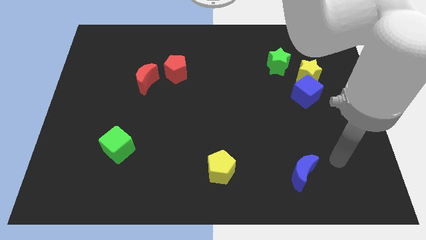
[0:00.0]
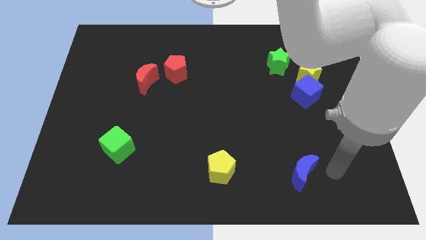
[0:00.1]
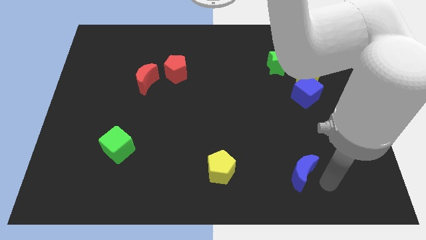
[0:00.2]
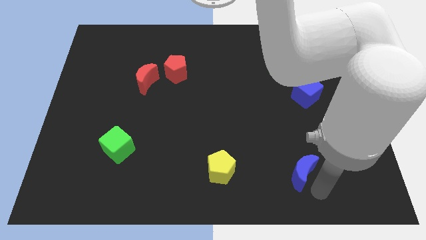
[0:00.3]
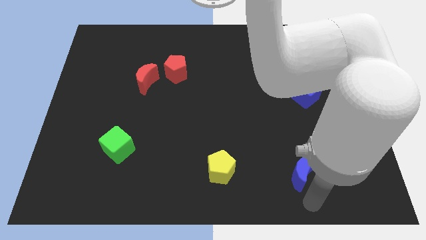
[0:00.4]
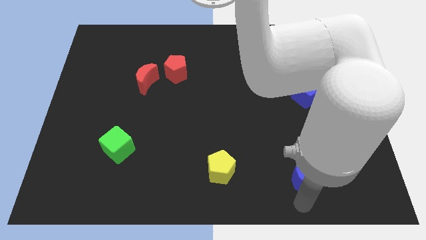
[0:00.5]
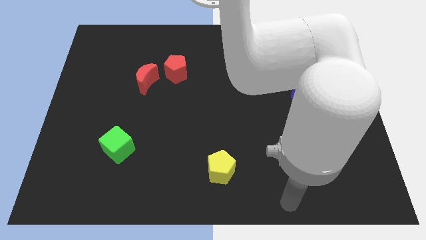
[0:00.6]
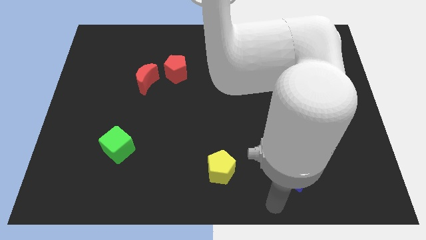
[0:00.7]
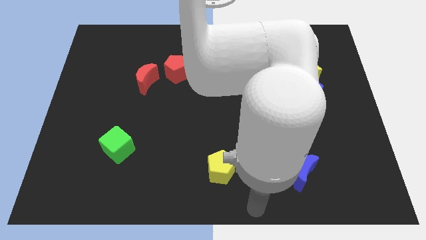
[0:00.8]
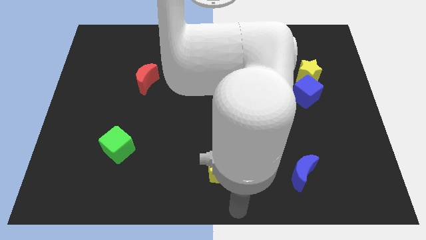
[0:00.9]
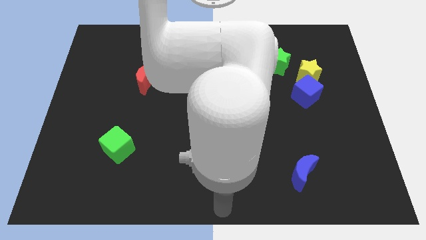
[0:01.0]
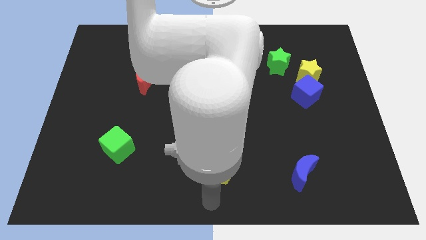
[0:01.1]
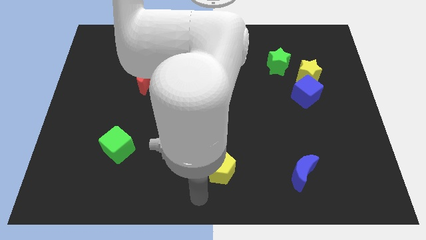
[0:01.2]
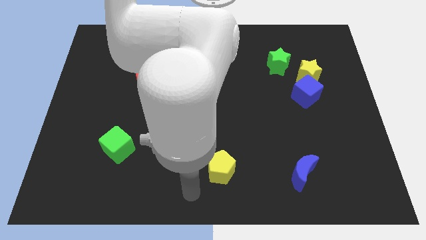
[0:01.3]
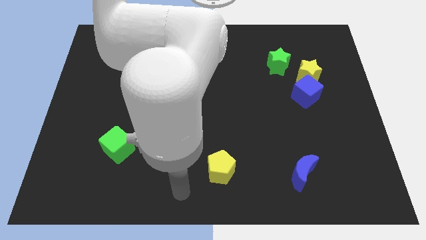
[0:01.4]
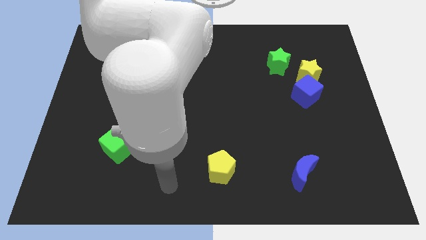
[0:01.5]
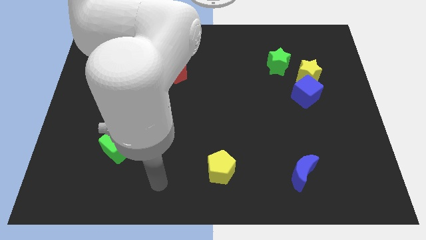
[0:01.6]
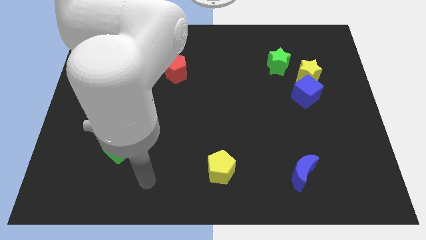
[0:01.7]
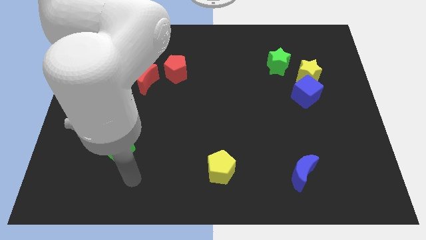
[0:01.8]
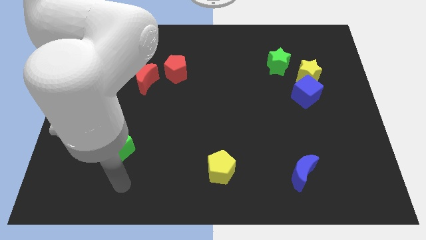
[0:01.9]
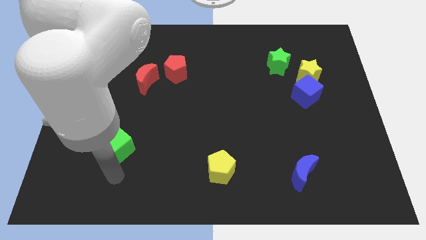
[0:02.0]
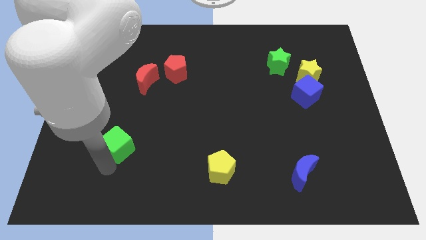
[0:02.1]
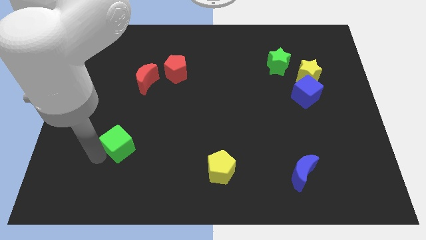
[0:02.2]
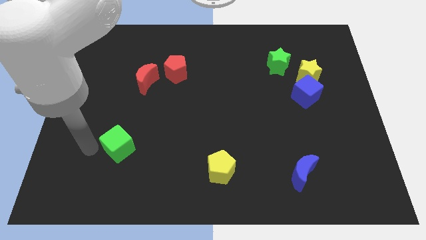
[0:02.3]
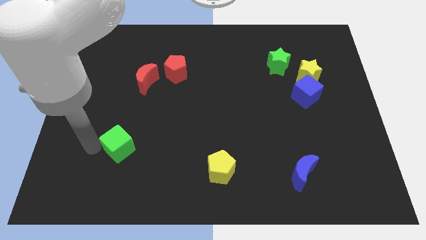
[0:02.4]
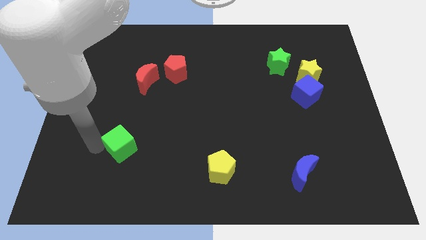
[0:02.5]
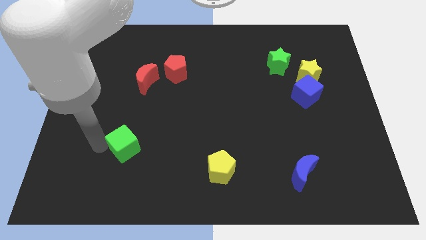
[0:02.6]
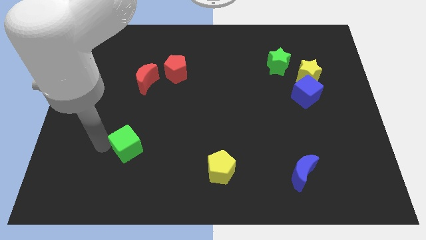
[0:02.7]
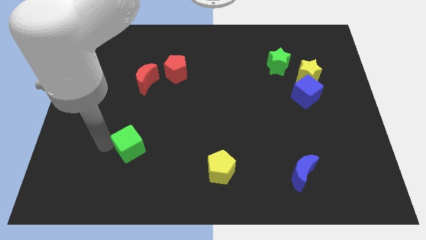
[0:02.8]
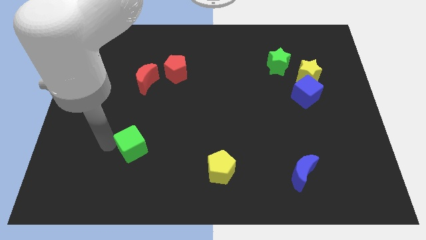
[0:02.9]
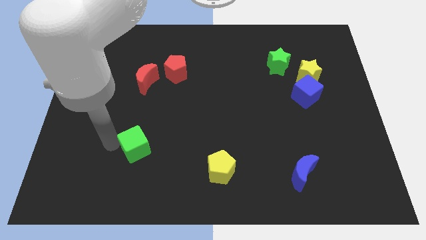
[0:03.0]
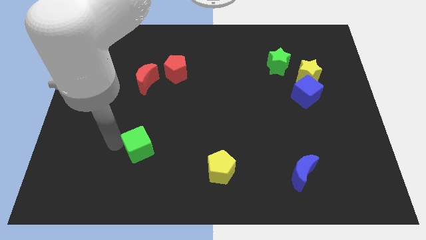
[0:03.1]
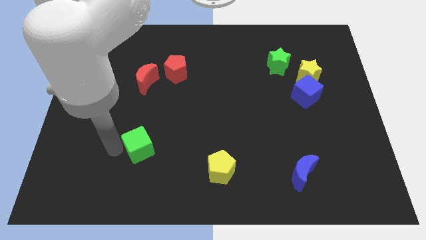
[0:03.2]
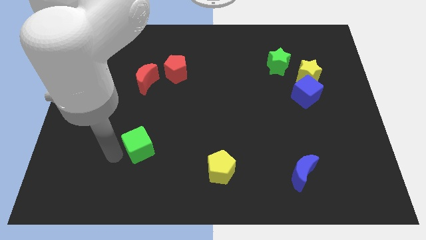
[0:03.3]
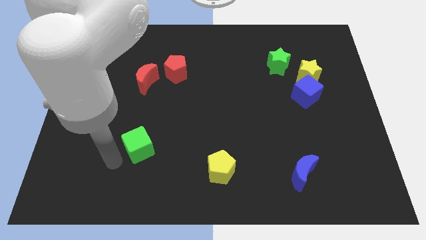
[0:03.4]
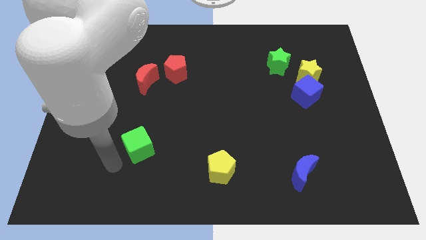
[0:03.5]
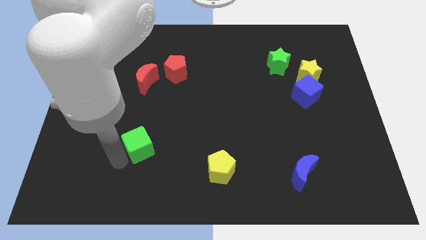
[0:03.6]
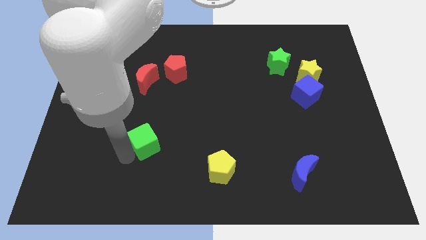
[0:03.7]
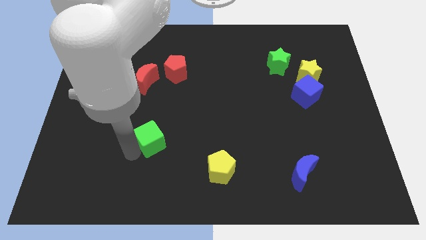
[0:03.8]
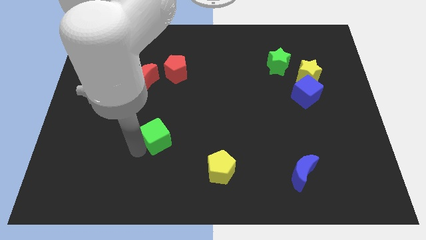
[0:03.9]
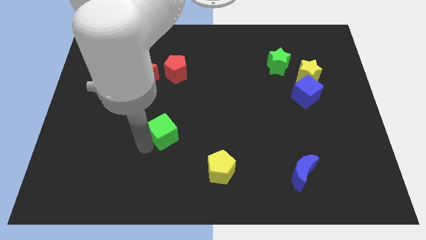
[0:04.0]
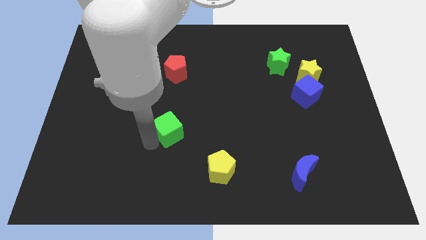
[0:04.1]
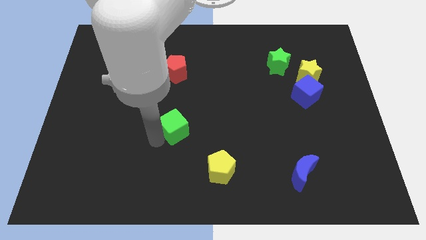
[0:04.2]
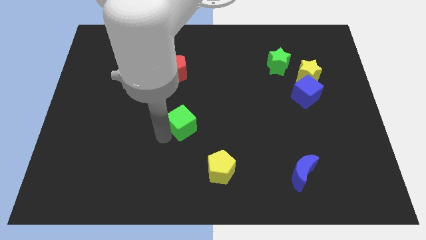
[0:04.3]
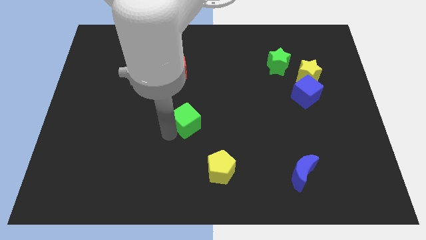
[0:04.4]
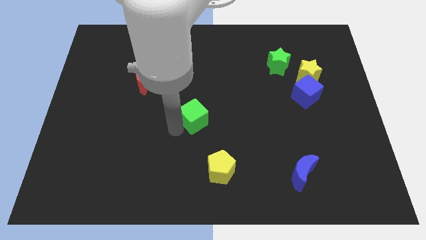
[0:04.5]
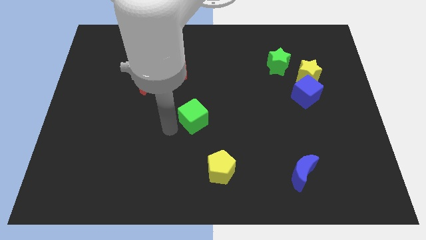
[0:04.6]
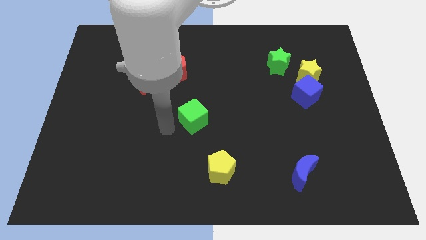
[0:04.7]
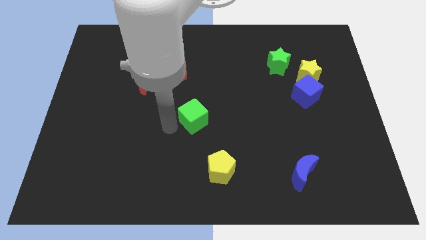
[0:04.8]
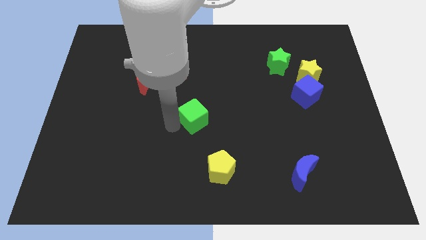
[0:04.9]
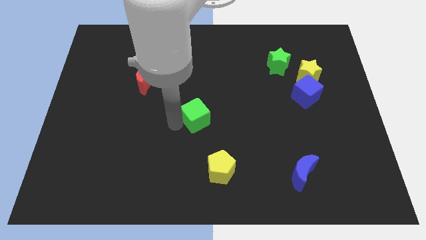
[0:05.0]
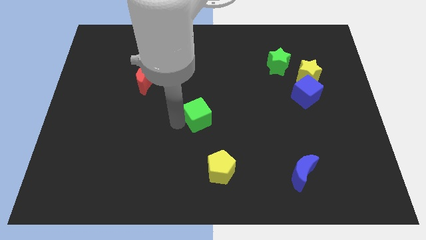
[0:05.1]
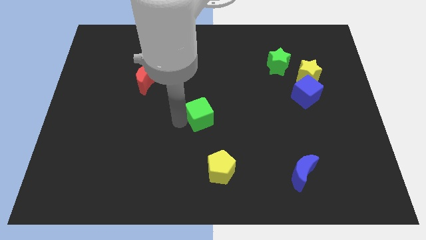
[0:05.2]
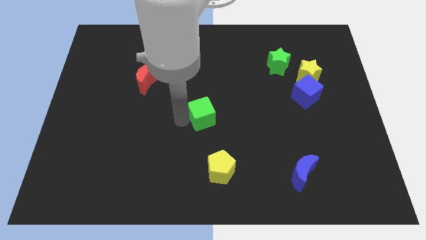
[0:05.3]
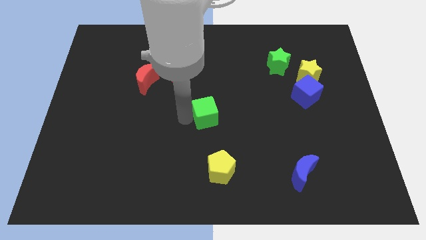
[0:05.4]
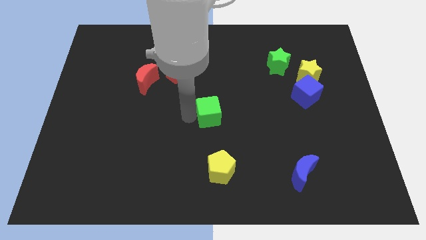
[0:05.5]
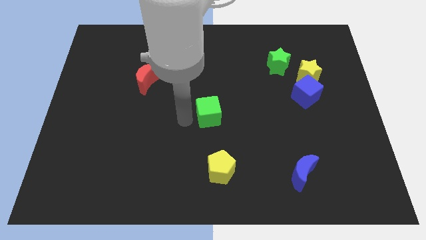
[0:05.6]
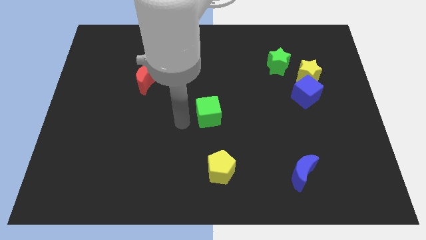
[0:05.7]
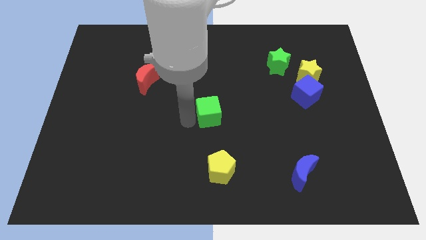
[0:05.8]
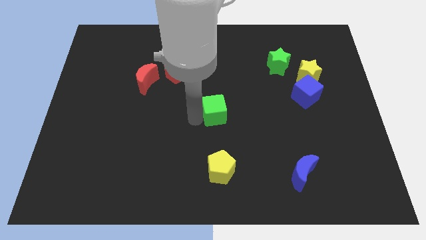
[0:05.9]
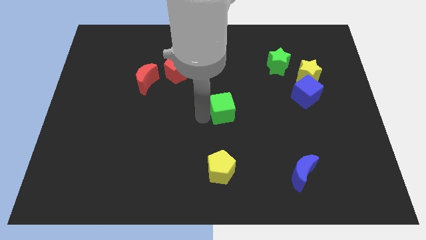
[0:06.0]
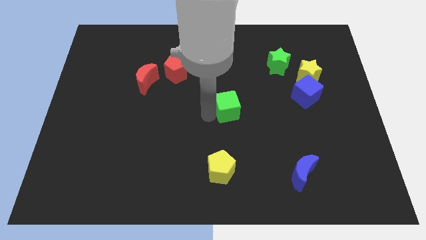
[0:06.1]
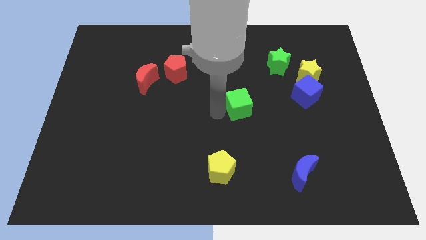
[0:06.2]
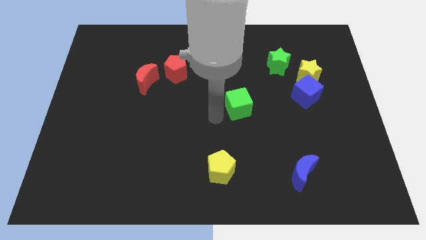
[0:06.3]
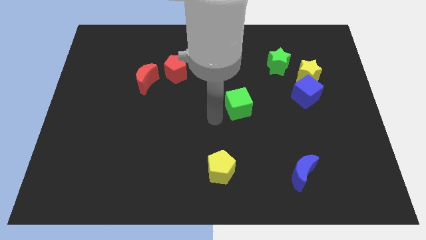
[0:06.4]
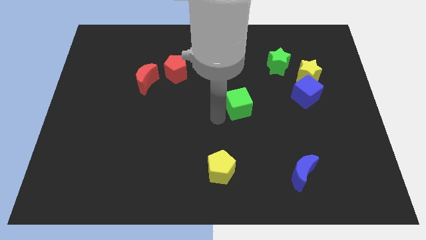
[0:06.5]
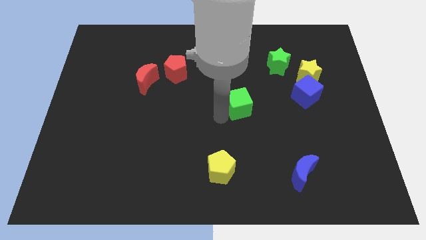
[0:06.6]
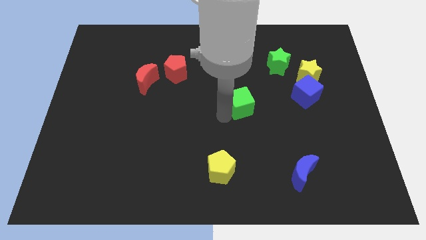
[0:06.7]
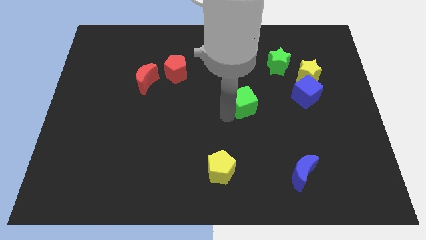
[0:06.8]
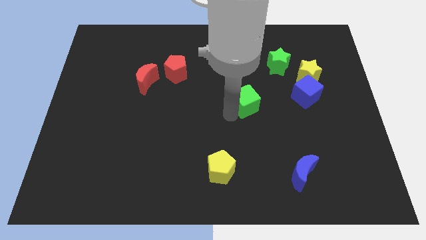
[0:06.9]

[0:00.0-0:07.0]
put the green cube to the left side of the blue cube

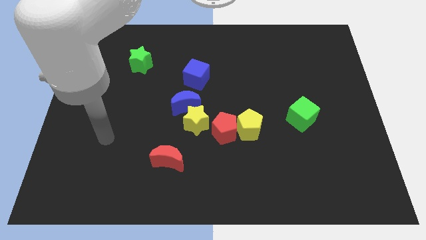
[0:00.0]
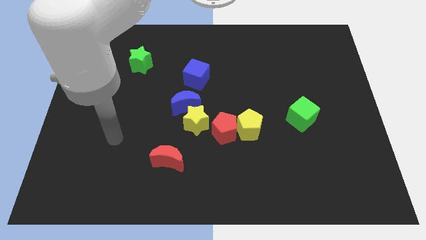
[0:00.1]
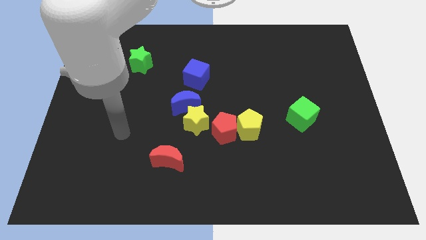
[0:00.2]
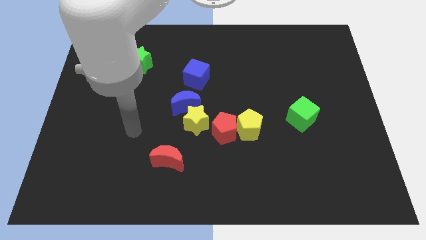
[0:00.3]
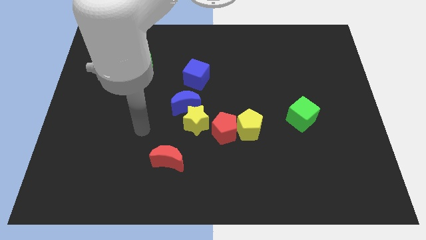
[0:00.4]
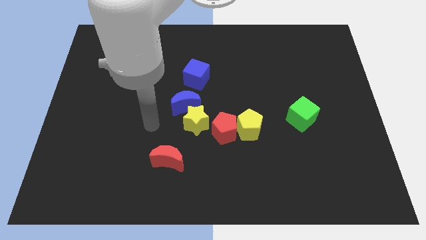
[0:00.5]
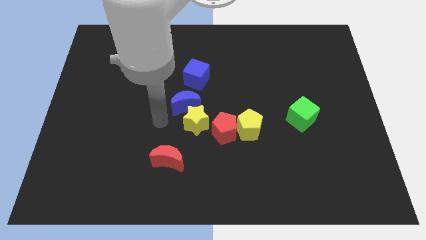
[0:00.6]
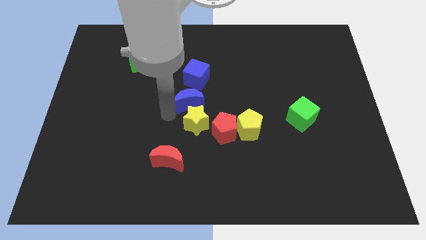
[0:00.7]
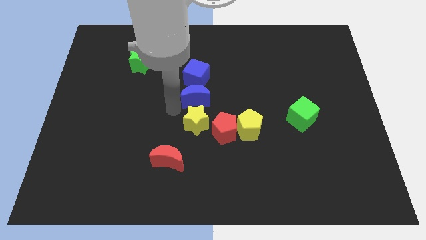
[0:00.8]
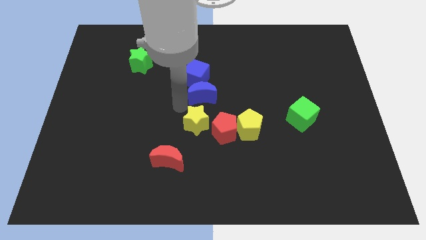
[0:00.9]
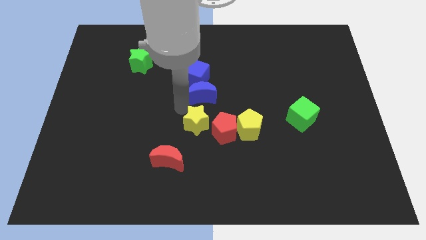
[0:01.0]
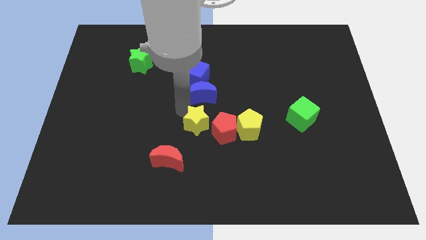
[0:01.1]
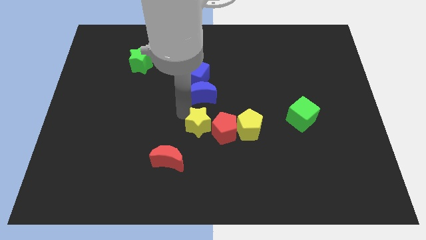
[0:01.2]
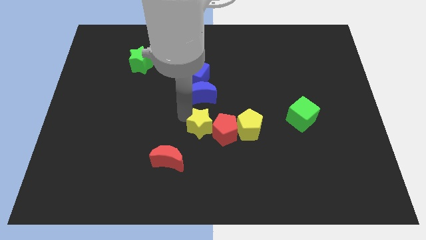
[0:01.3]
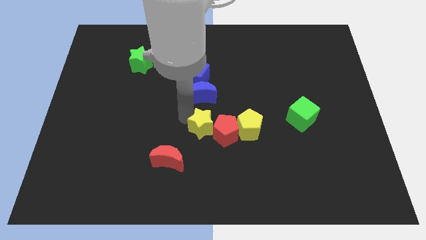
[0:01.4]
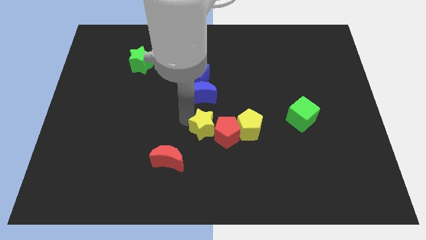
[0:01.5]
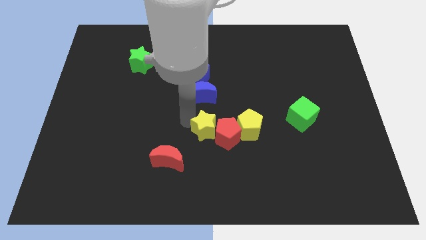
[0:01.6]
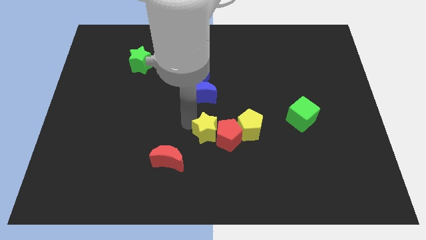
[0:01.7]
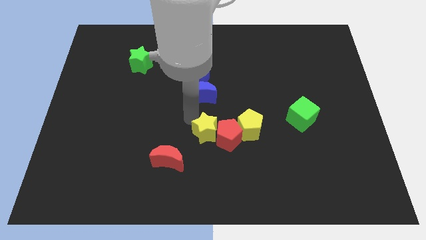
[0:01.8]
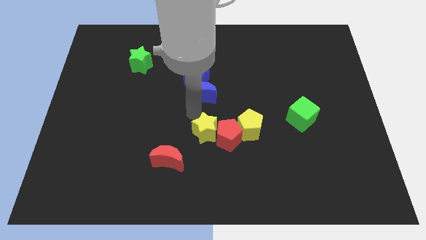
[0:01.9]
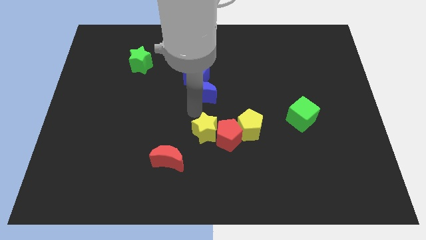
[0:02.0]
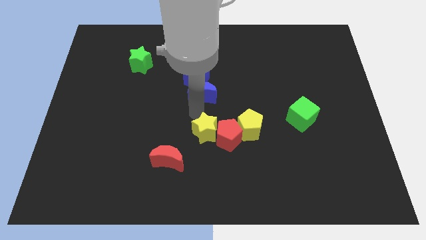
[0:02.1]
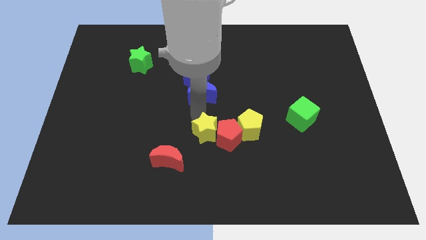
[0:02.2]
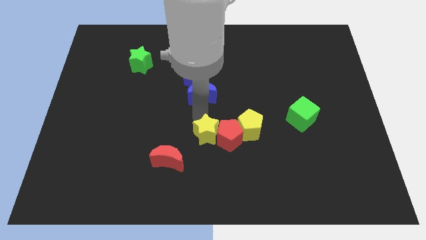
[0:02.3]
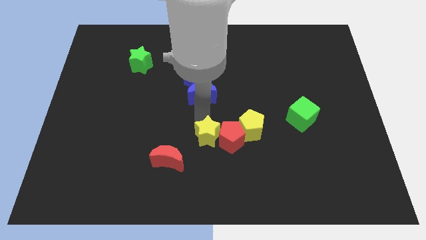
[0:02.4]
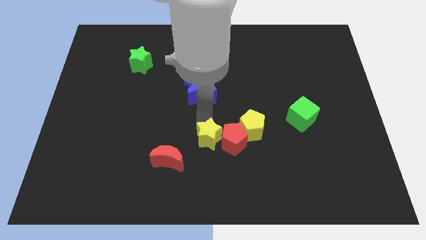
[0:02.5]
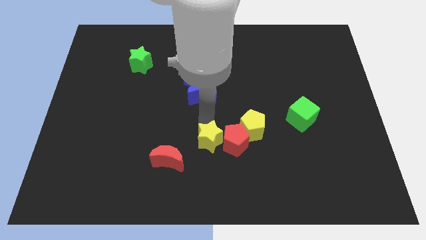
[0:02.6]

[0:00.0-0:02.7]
move the yellow star to the right side of the red moon
